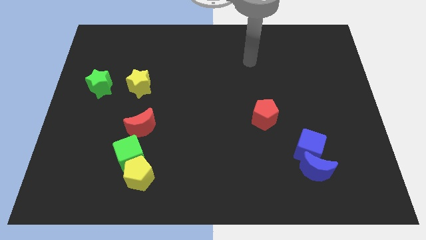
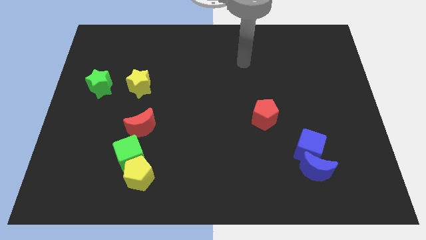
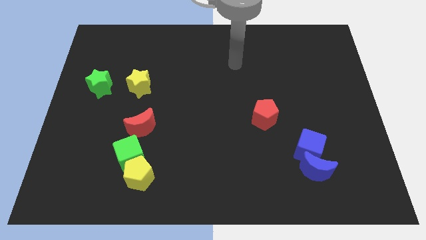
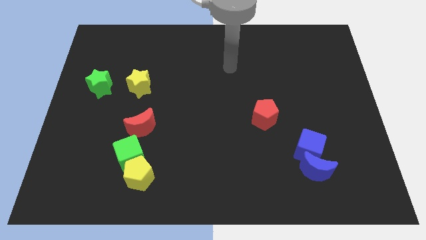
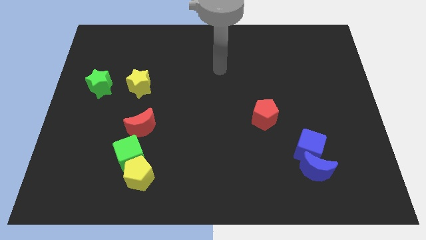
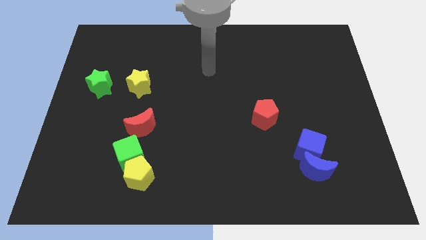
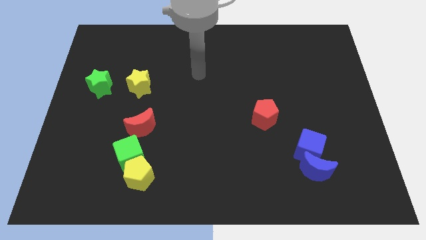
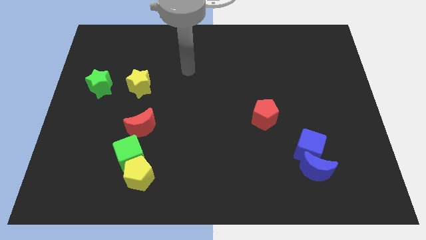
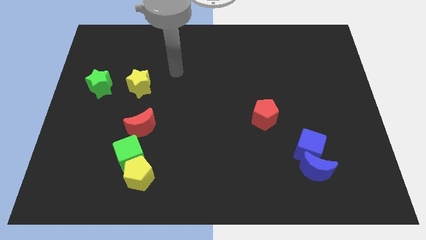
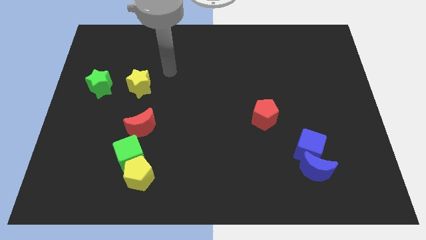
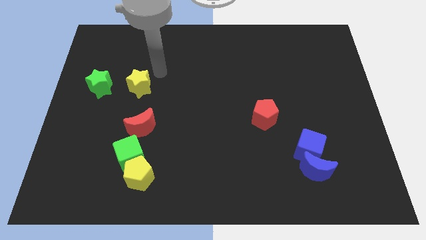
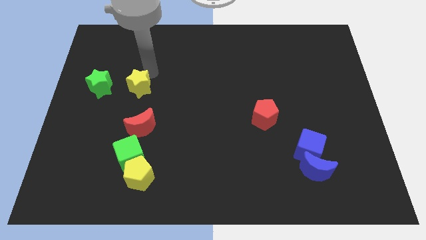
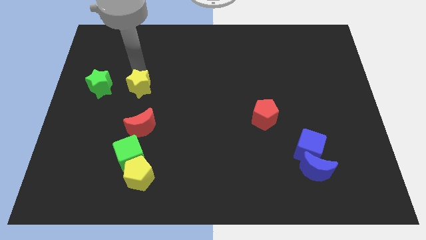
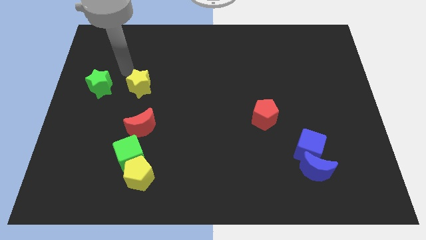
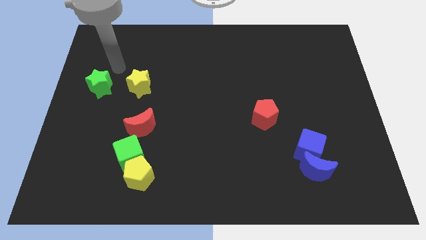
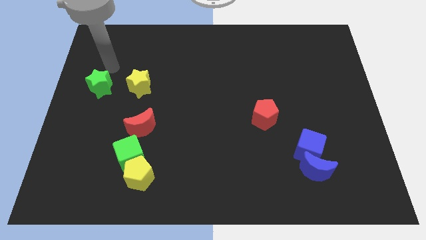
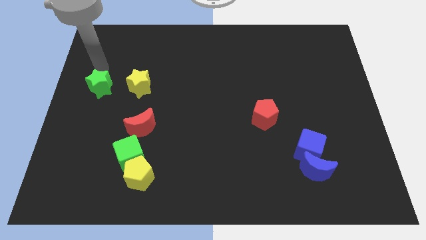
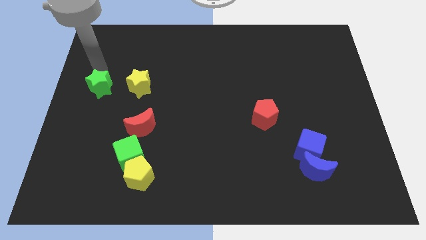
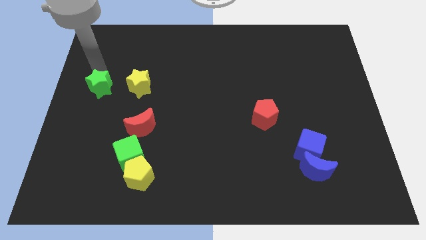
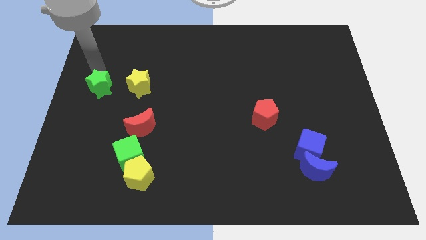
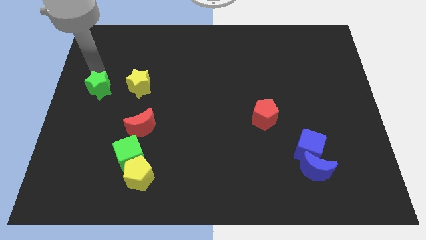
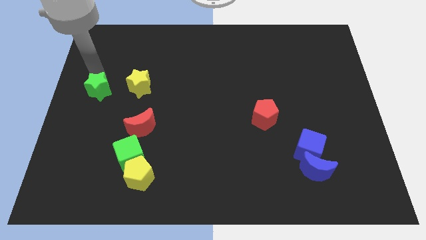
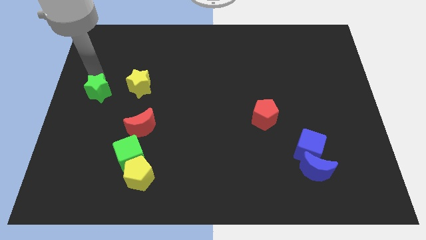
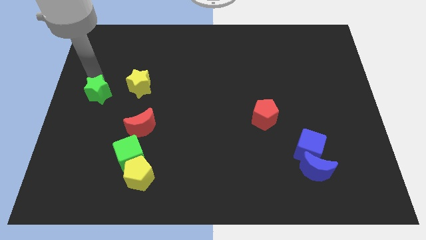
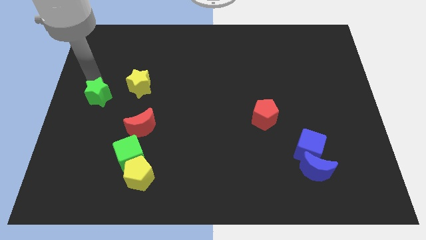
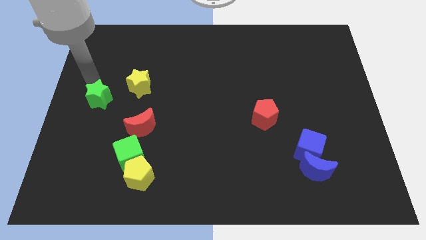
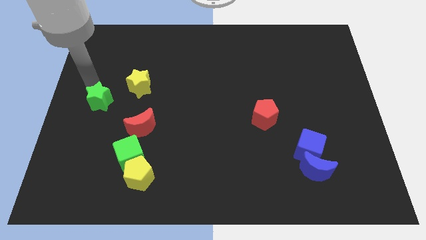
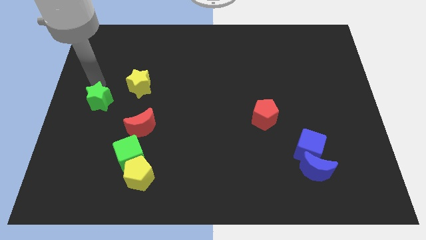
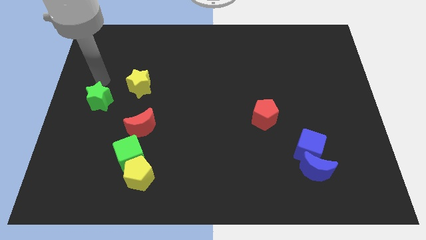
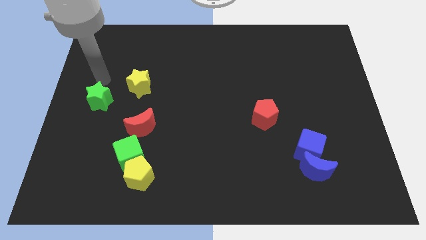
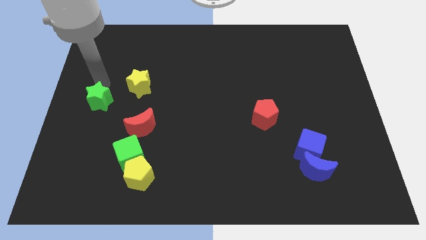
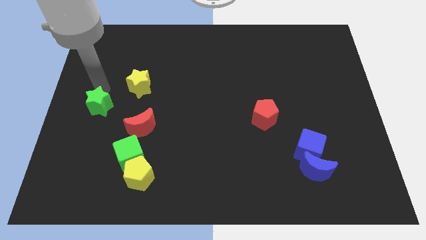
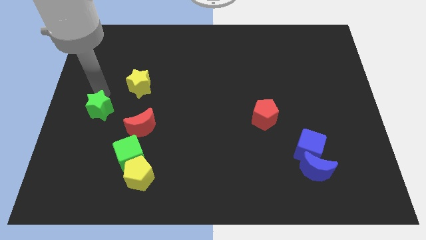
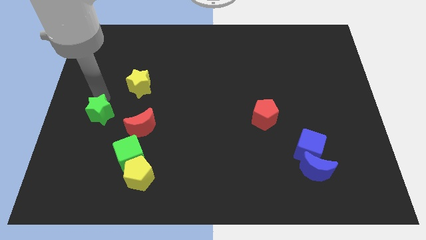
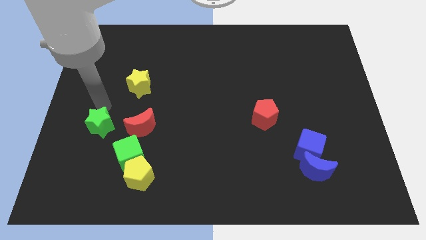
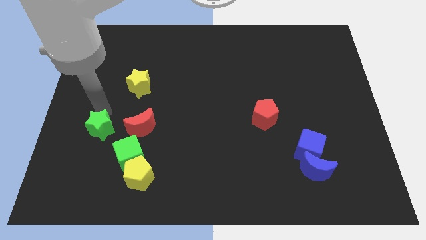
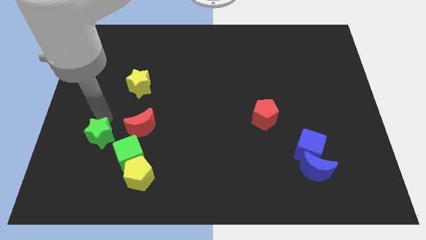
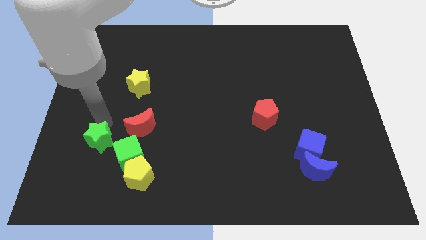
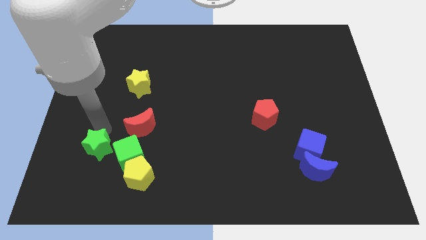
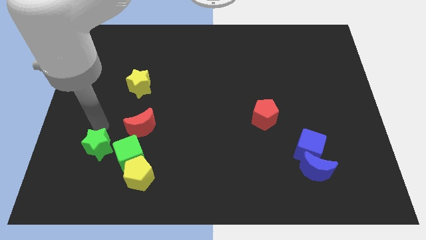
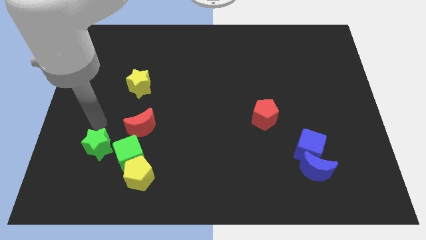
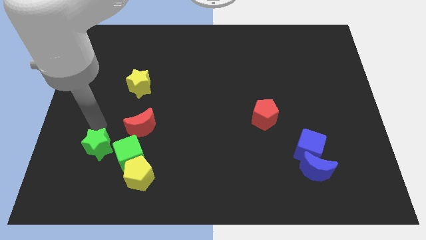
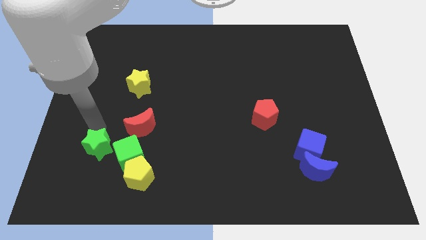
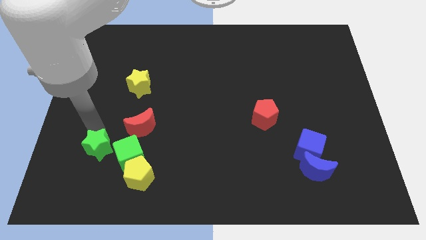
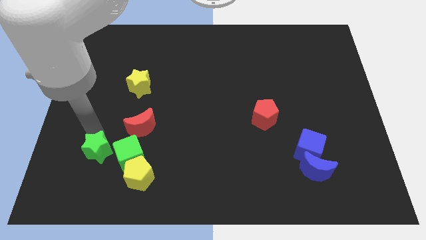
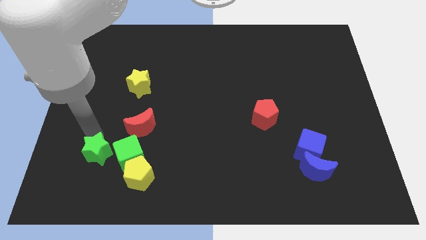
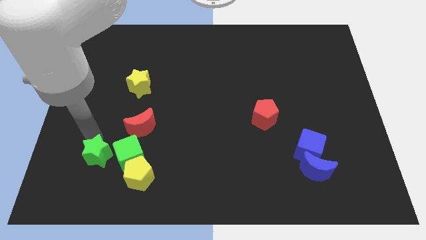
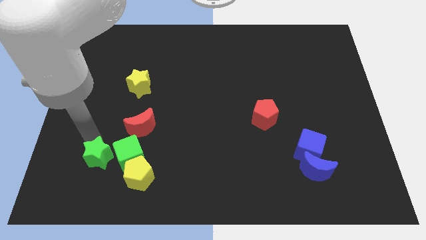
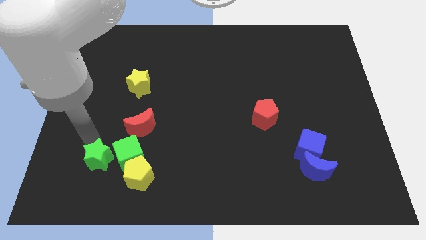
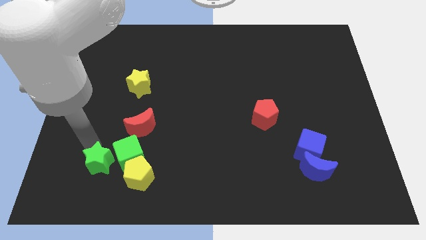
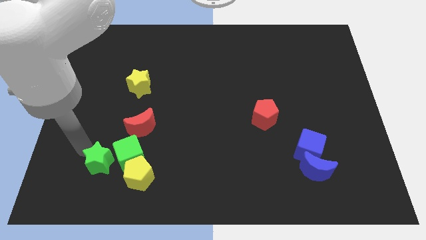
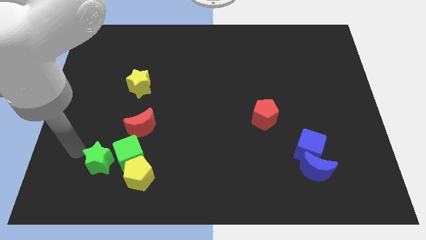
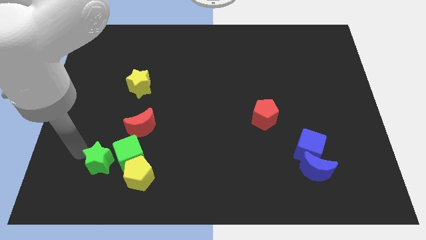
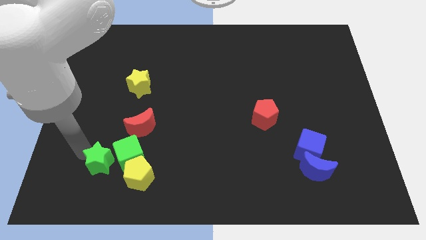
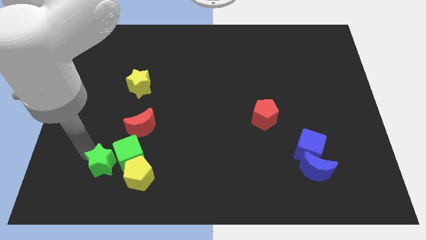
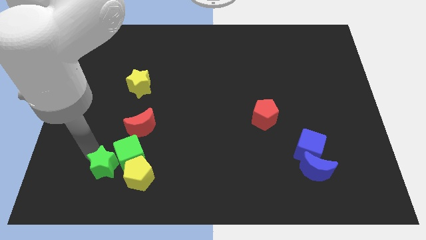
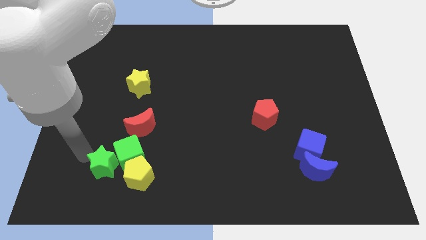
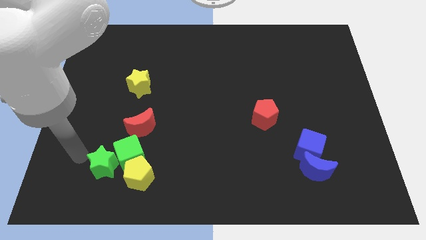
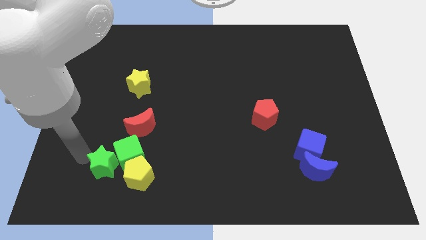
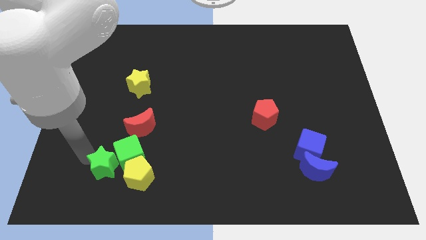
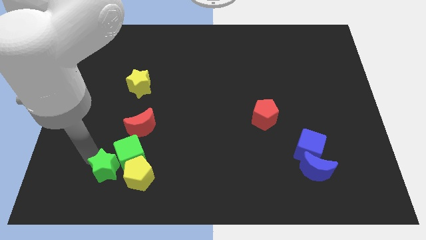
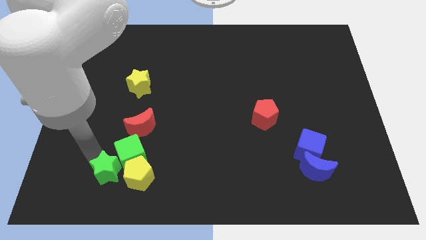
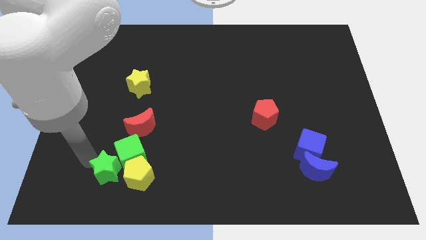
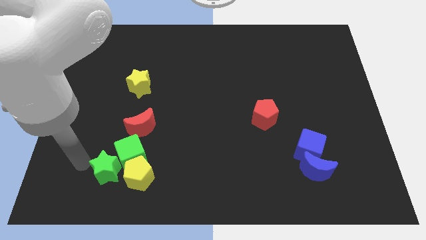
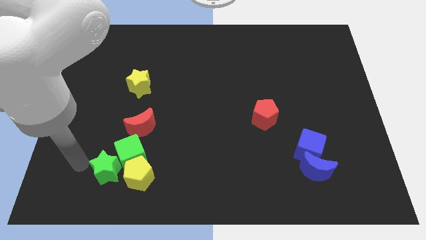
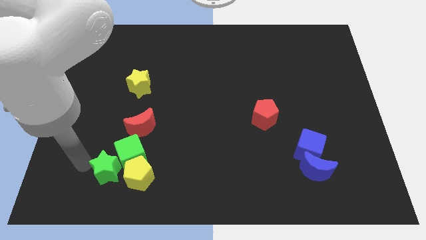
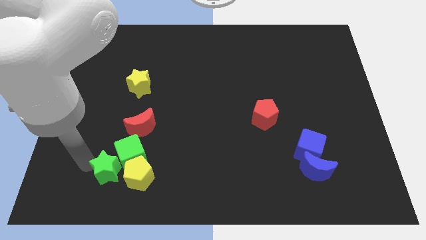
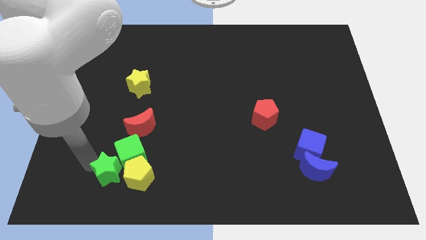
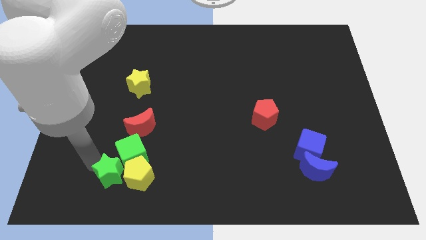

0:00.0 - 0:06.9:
slide the green star next to the yellow pentagon

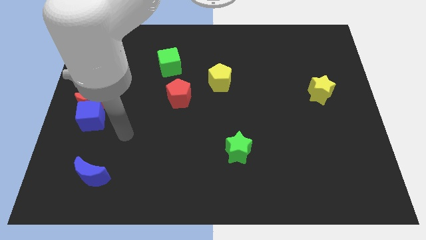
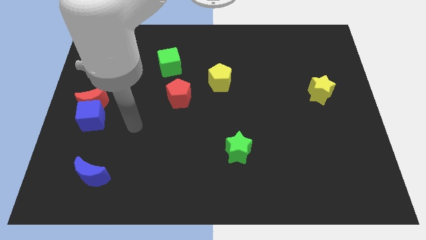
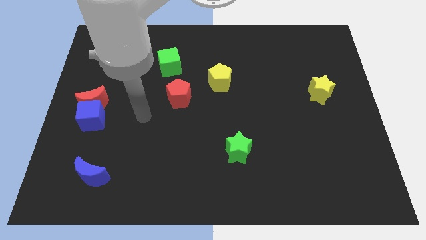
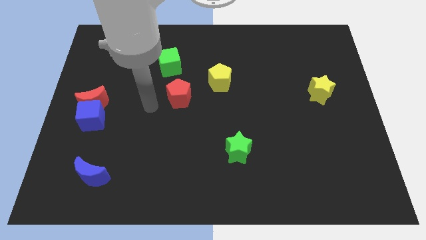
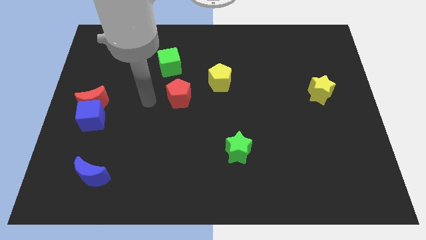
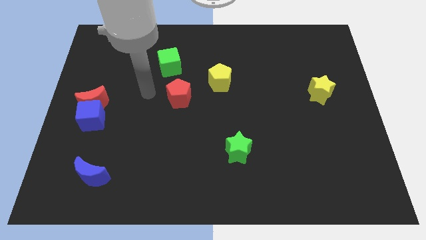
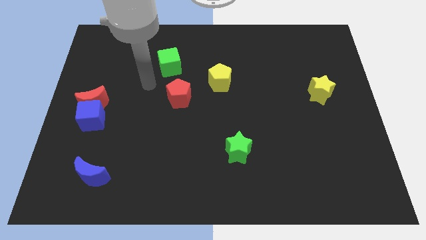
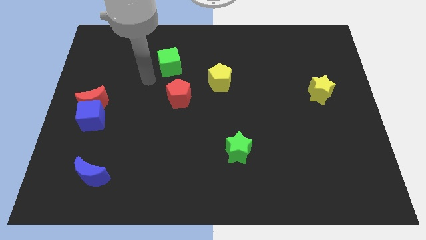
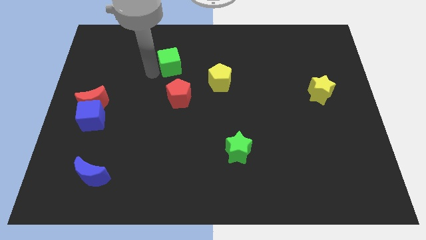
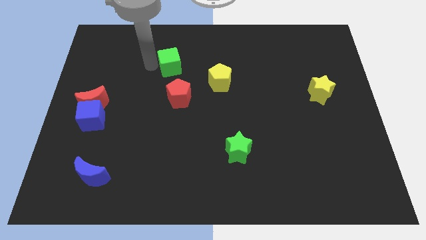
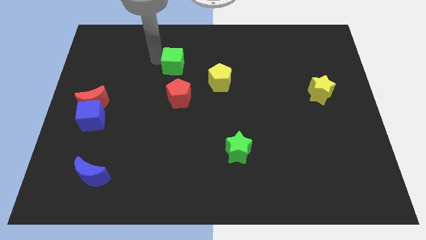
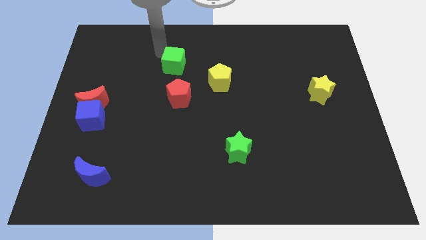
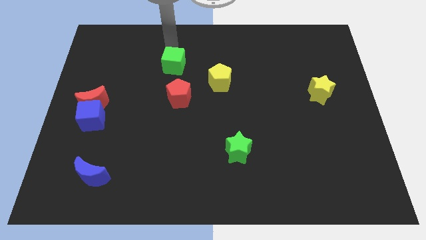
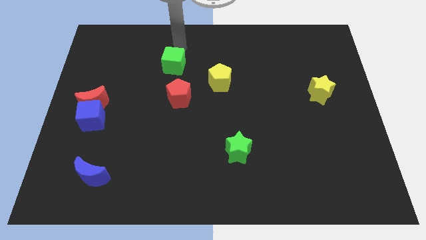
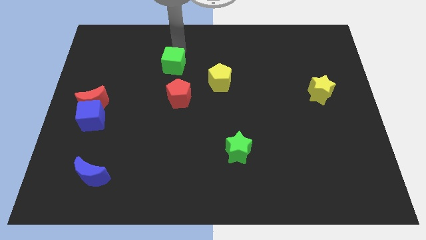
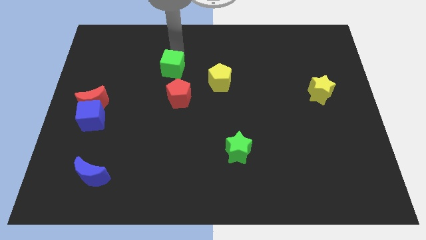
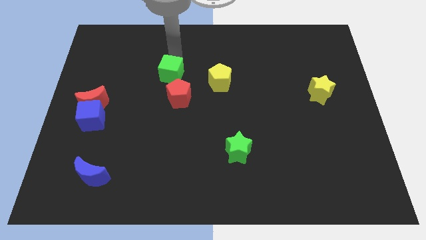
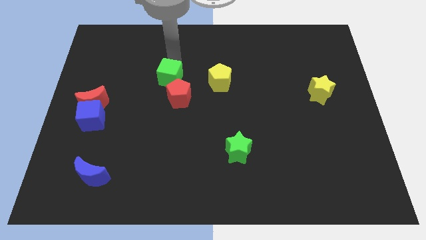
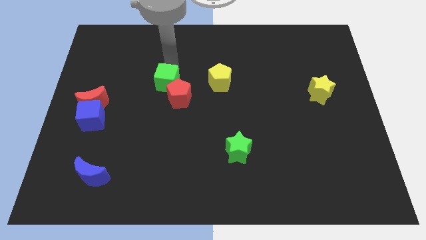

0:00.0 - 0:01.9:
put the green cube to the red pentagon
